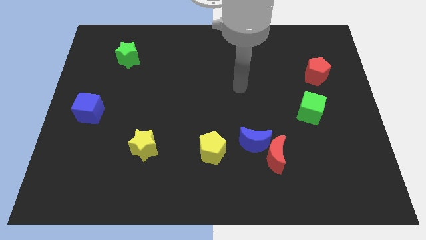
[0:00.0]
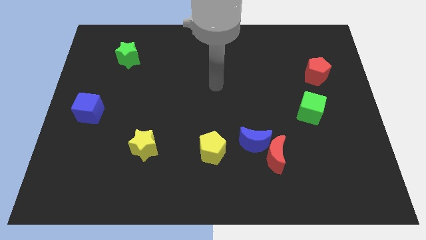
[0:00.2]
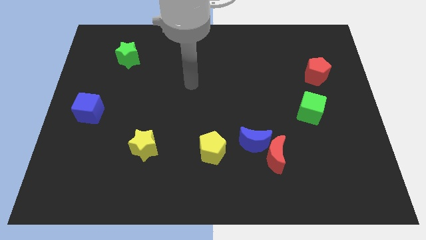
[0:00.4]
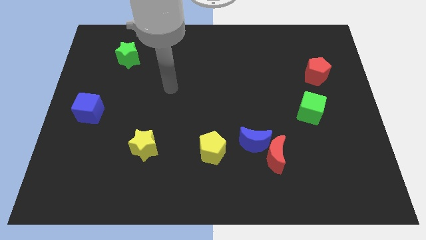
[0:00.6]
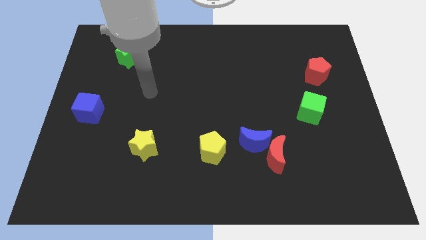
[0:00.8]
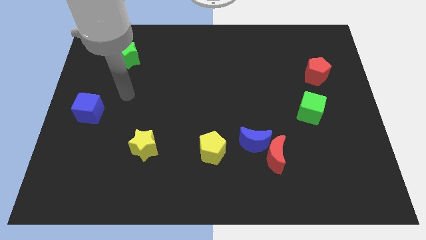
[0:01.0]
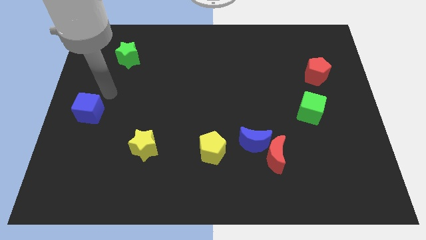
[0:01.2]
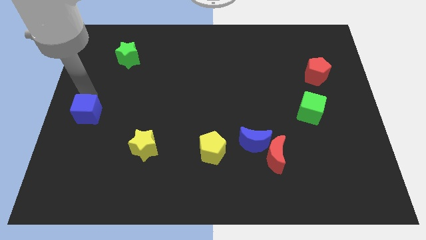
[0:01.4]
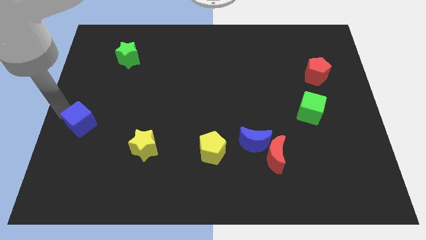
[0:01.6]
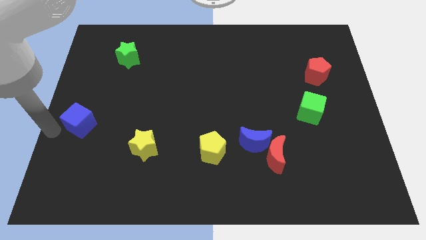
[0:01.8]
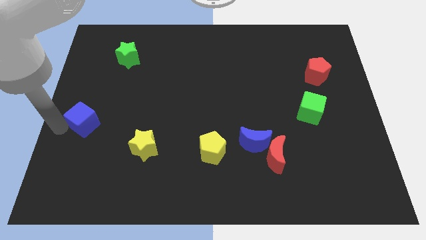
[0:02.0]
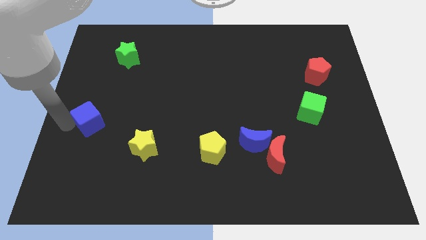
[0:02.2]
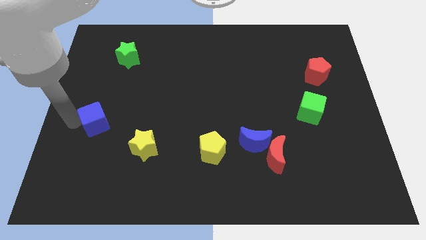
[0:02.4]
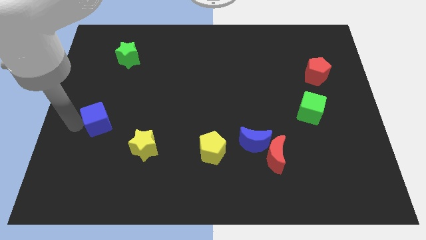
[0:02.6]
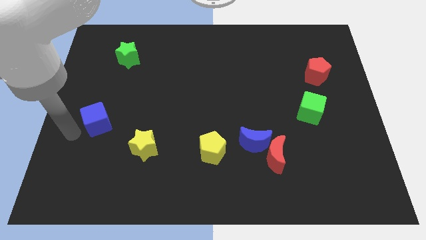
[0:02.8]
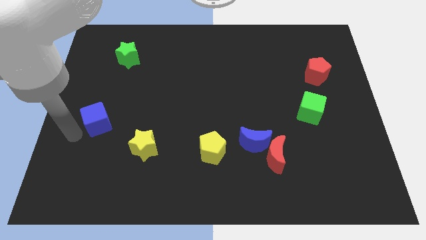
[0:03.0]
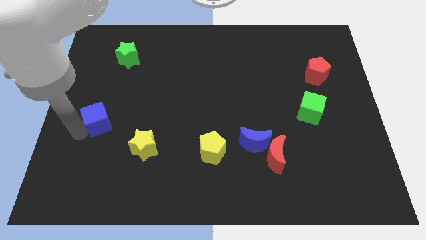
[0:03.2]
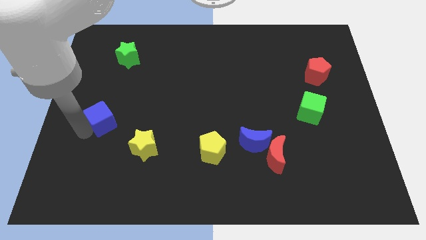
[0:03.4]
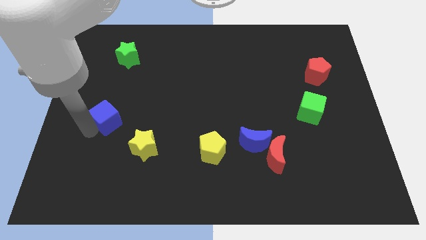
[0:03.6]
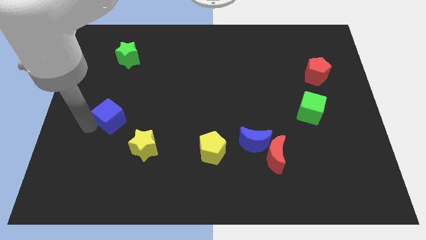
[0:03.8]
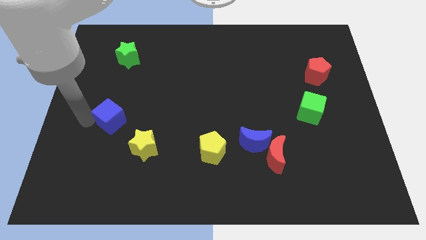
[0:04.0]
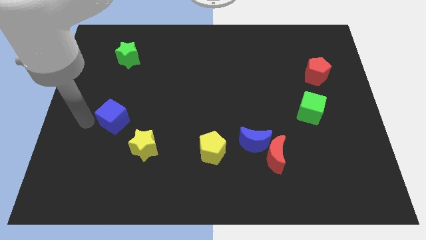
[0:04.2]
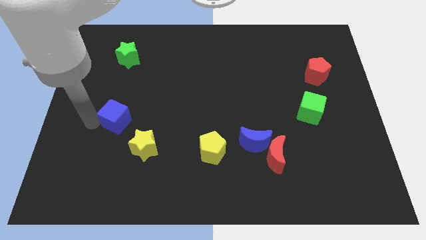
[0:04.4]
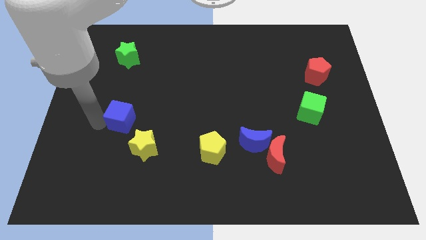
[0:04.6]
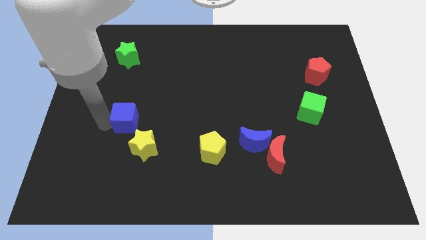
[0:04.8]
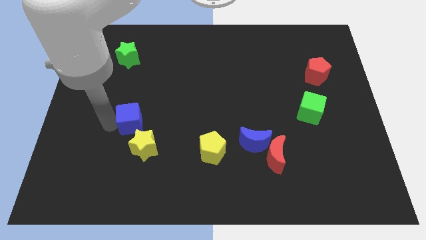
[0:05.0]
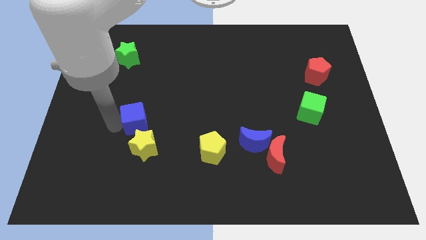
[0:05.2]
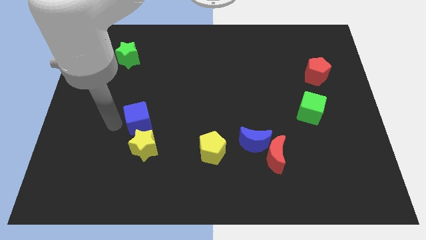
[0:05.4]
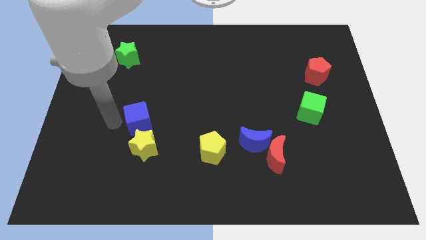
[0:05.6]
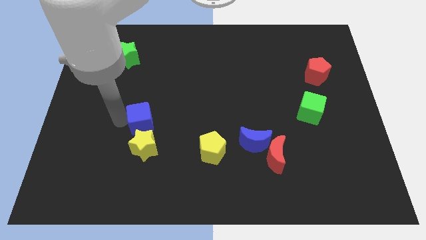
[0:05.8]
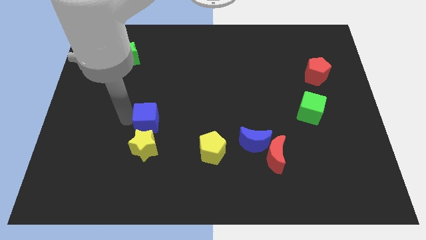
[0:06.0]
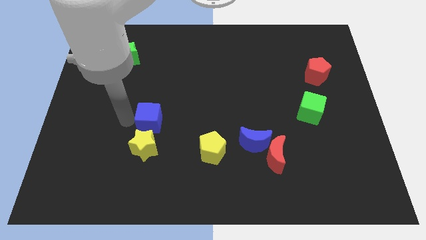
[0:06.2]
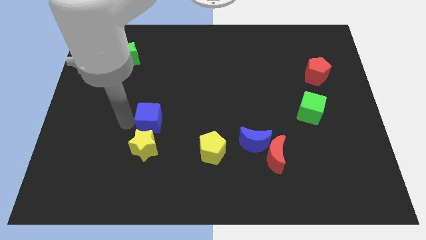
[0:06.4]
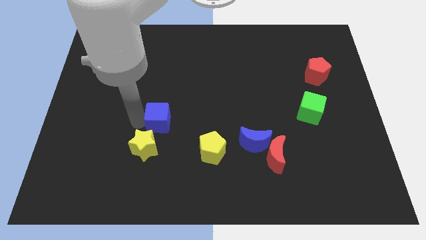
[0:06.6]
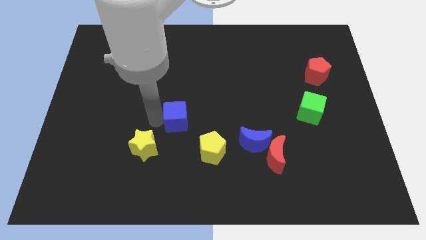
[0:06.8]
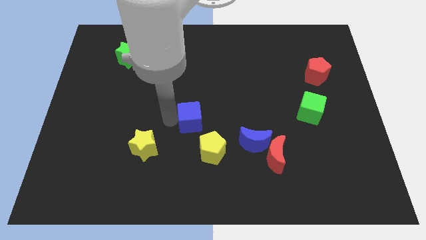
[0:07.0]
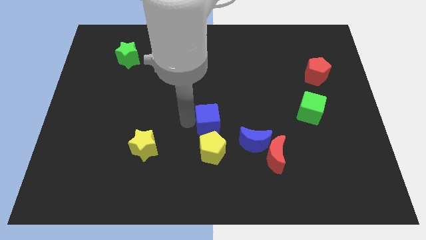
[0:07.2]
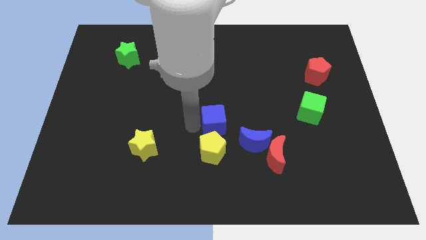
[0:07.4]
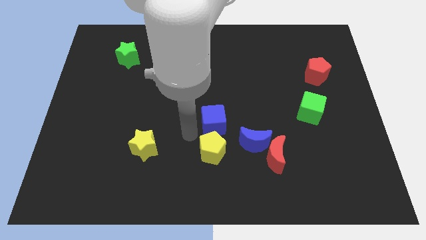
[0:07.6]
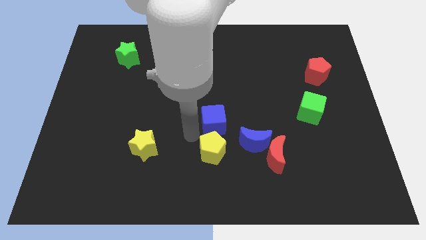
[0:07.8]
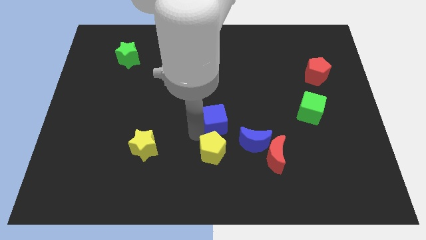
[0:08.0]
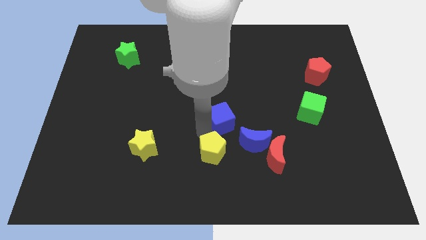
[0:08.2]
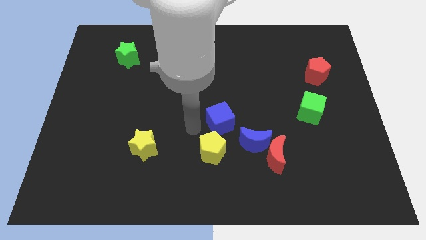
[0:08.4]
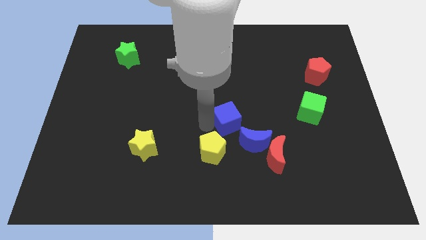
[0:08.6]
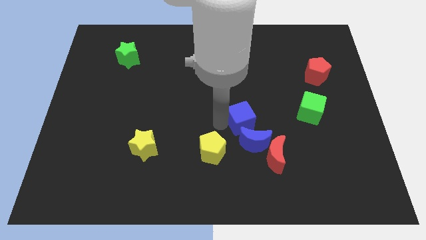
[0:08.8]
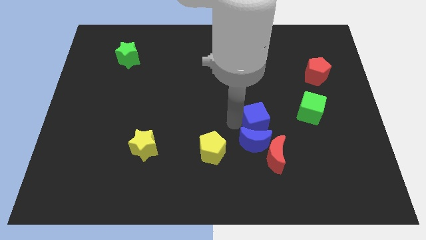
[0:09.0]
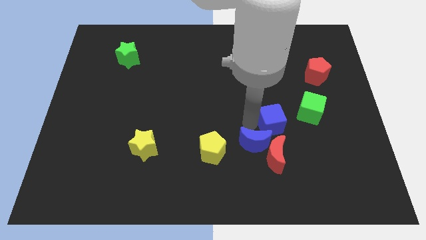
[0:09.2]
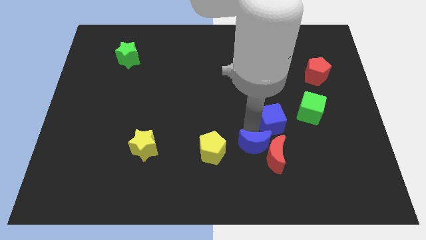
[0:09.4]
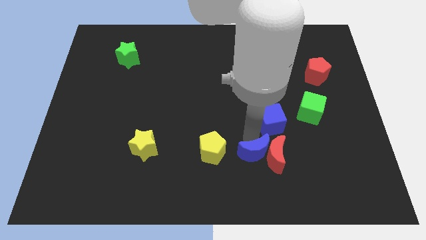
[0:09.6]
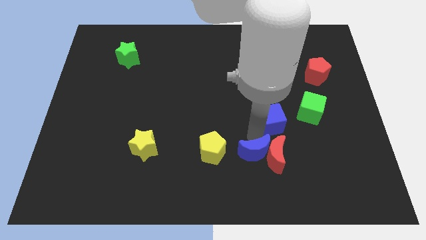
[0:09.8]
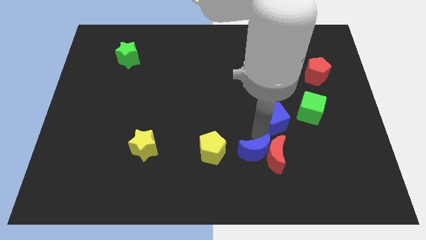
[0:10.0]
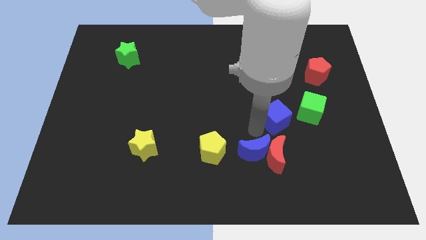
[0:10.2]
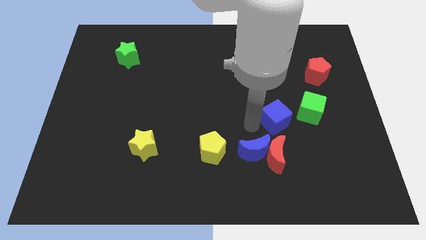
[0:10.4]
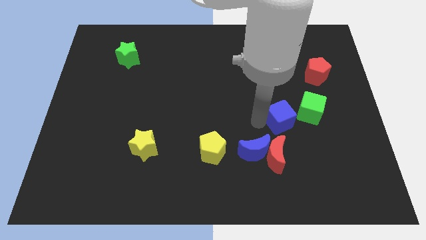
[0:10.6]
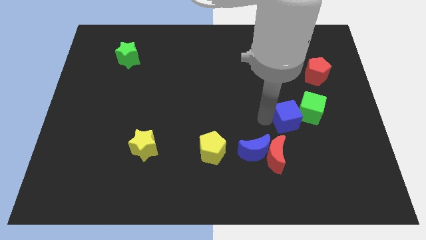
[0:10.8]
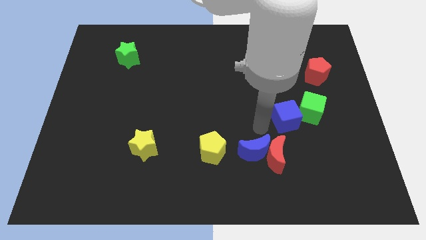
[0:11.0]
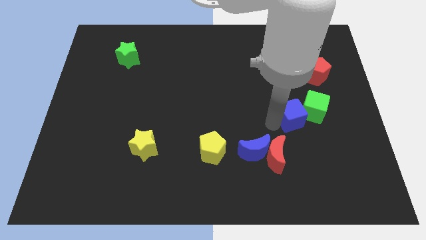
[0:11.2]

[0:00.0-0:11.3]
push the blue cube close to the green cube

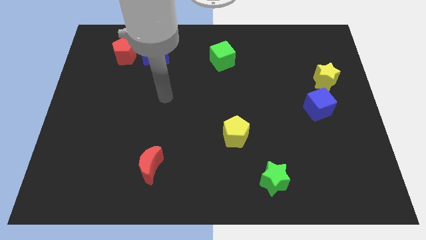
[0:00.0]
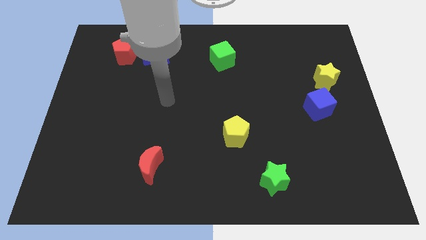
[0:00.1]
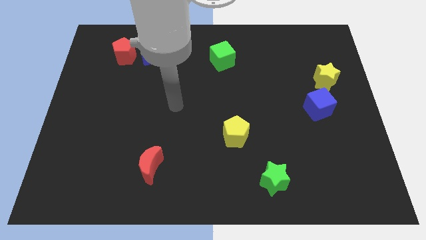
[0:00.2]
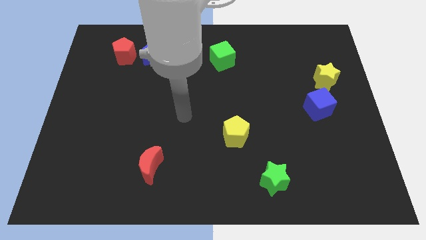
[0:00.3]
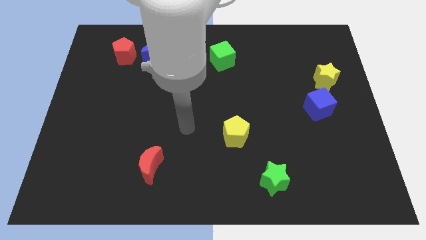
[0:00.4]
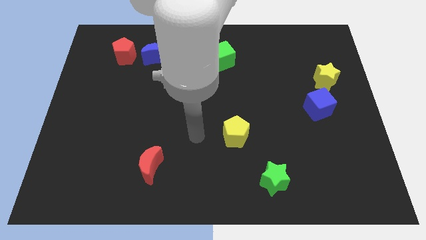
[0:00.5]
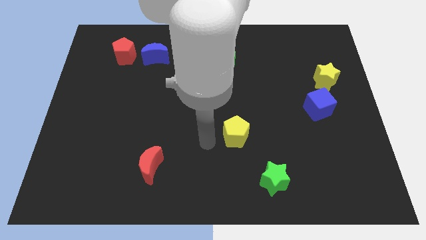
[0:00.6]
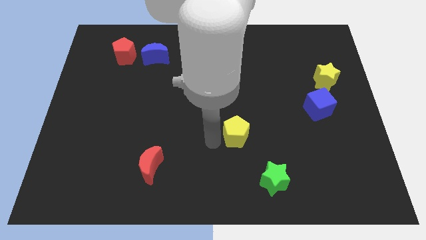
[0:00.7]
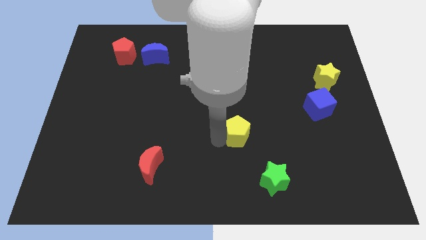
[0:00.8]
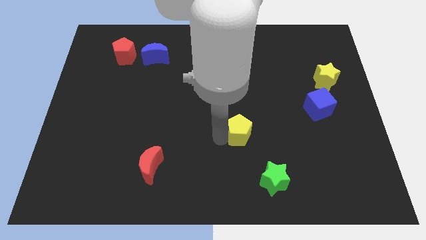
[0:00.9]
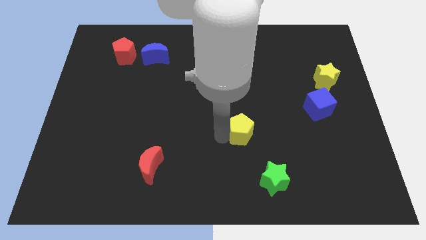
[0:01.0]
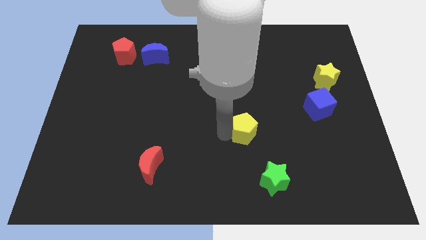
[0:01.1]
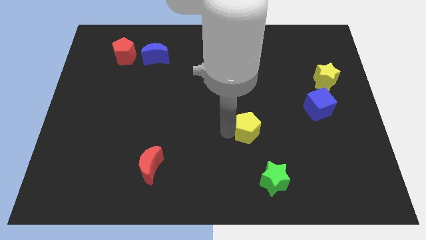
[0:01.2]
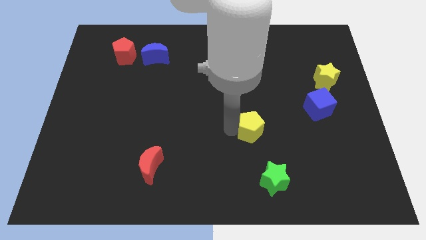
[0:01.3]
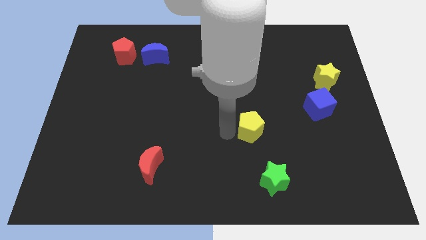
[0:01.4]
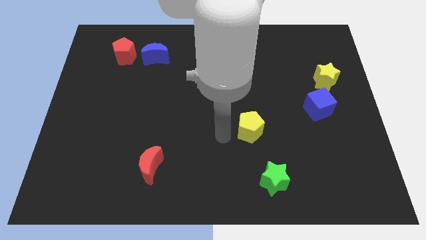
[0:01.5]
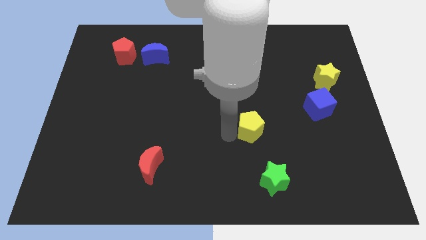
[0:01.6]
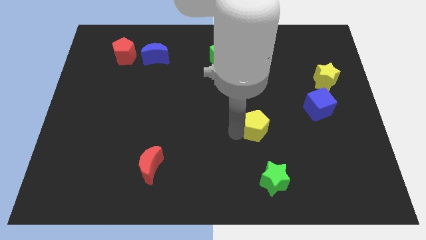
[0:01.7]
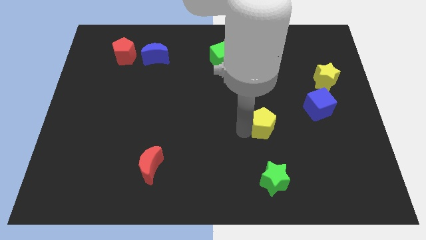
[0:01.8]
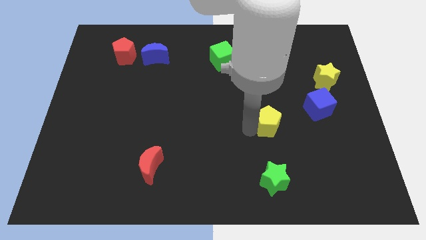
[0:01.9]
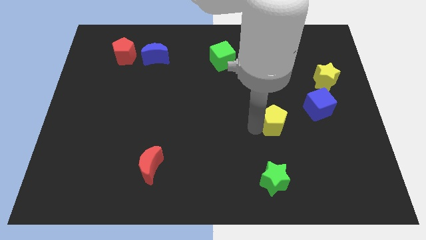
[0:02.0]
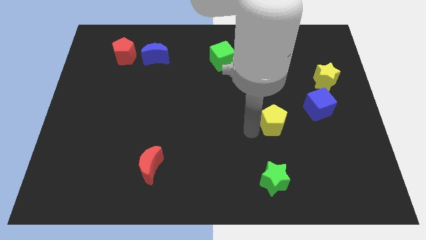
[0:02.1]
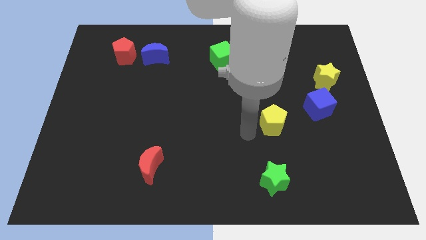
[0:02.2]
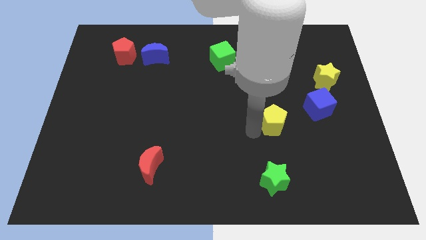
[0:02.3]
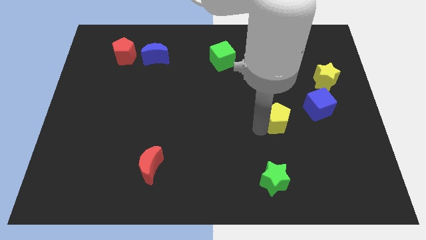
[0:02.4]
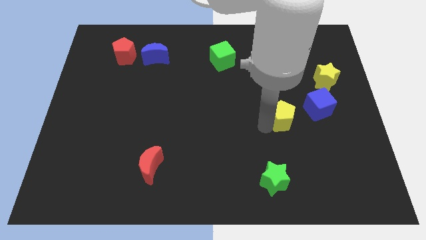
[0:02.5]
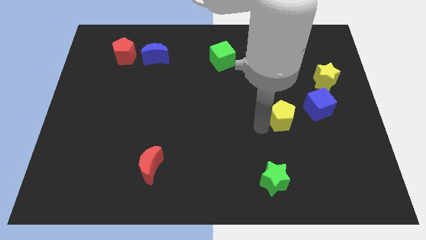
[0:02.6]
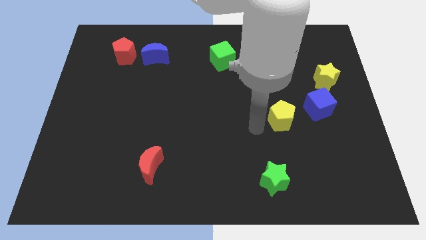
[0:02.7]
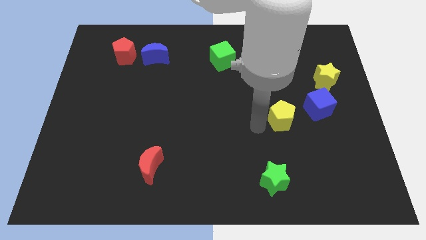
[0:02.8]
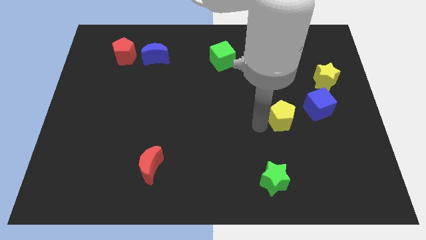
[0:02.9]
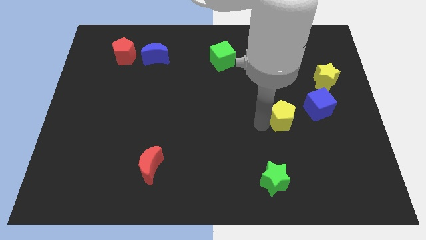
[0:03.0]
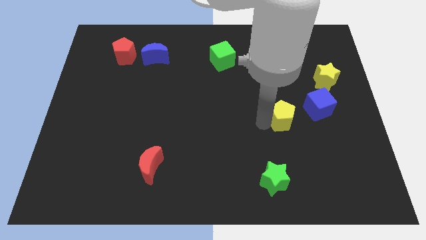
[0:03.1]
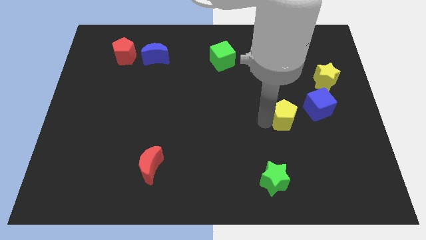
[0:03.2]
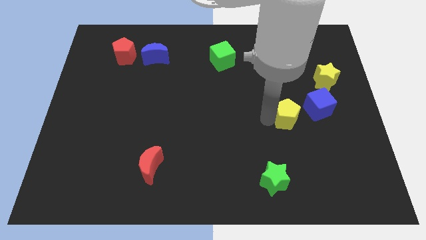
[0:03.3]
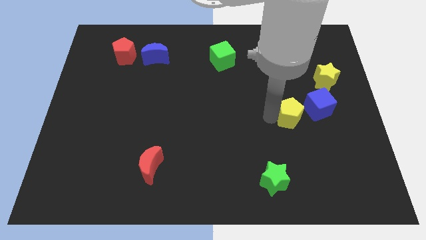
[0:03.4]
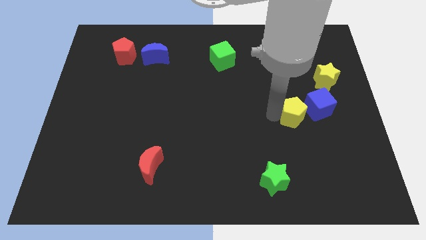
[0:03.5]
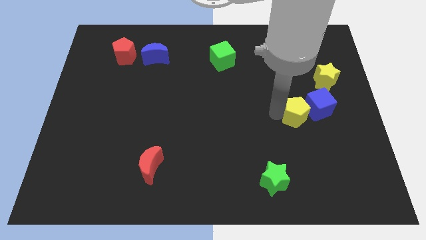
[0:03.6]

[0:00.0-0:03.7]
slide the yellow pentagon towards the blue cube
